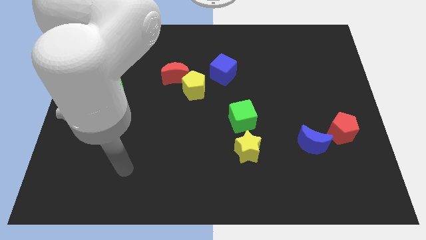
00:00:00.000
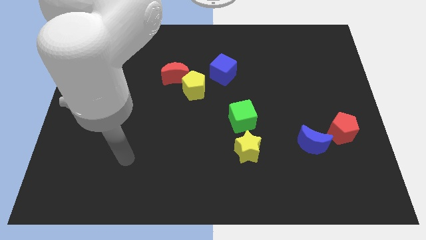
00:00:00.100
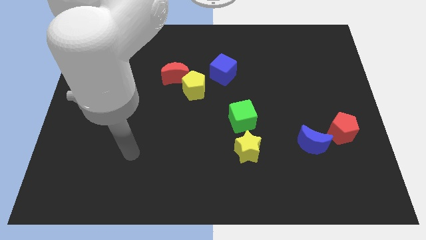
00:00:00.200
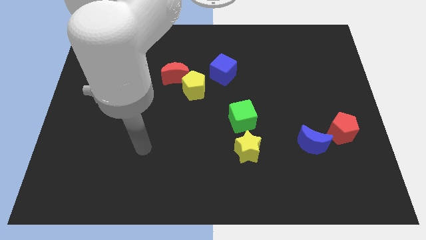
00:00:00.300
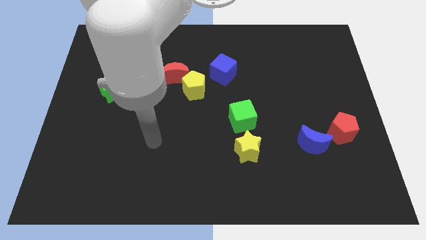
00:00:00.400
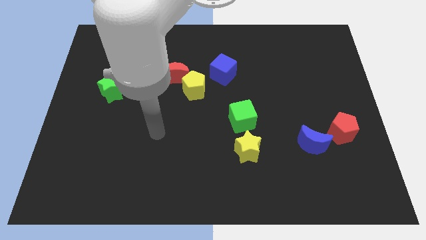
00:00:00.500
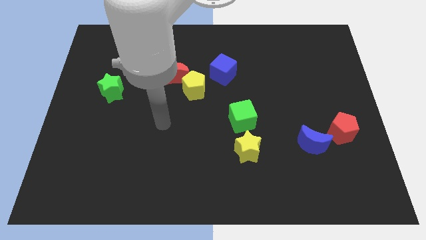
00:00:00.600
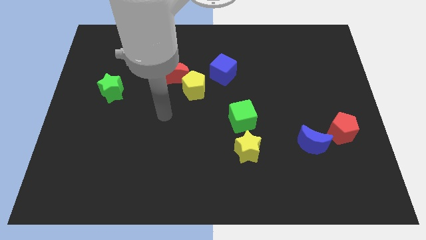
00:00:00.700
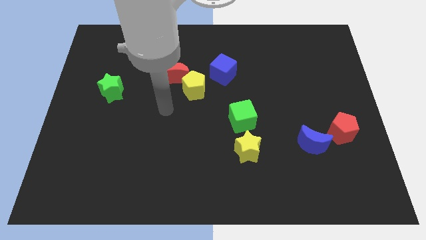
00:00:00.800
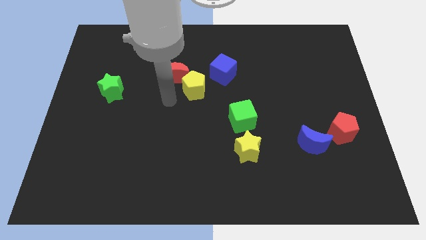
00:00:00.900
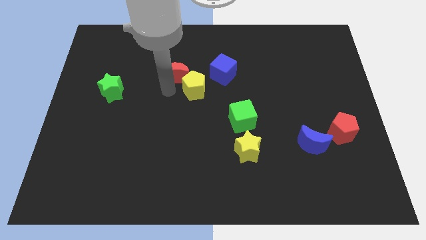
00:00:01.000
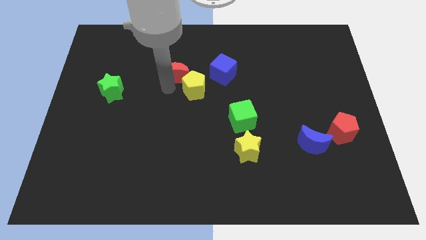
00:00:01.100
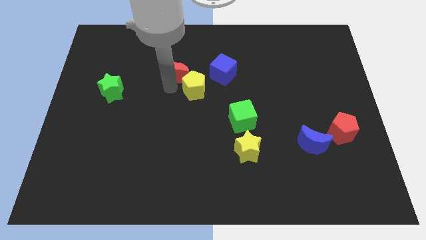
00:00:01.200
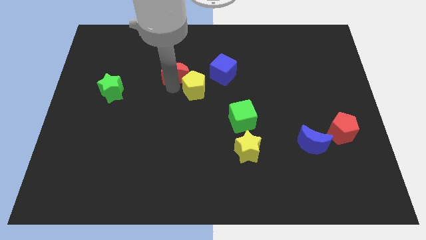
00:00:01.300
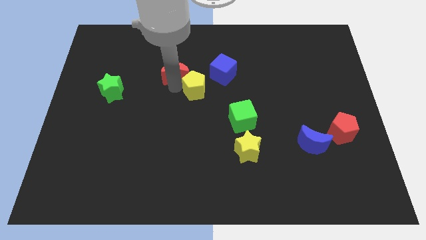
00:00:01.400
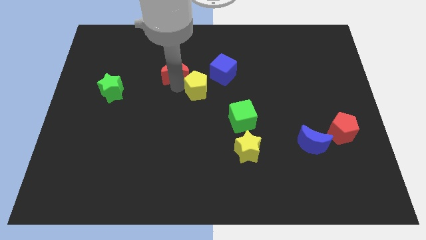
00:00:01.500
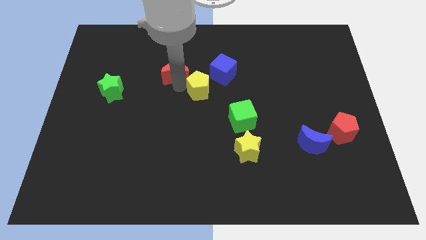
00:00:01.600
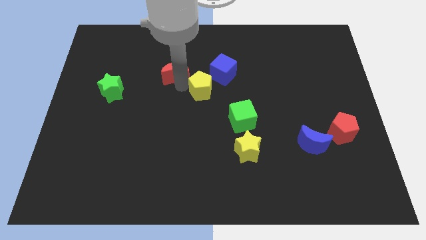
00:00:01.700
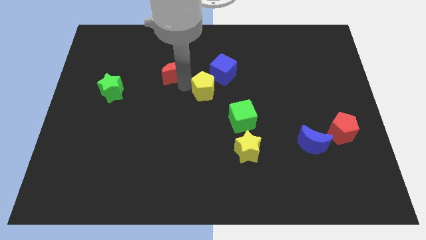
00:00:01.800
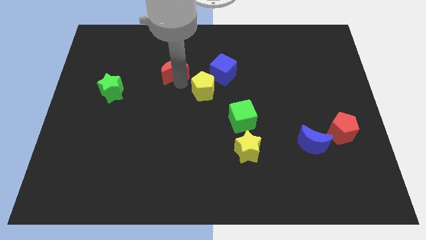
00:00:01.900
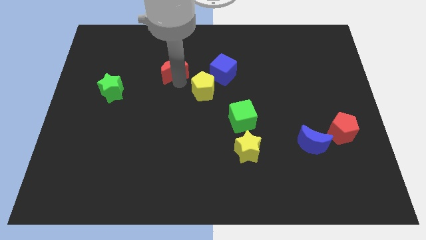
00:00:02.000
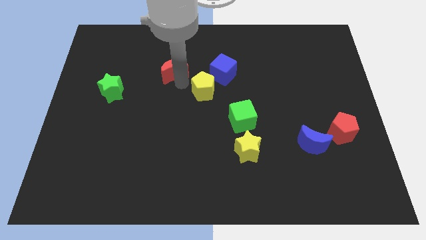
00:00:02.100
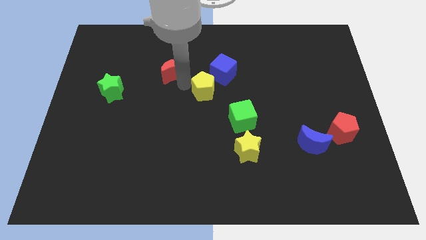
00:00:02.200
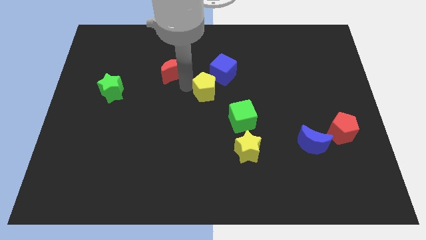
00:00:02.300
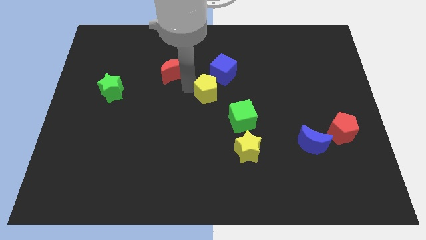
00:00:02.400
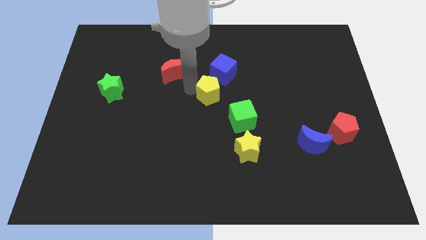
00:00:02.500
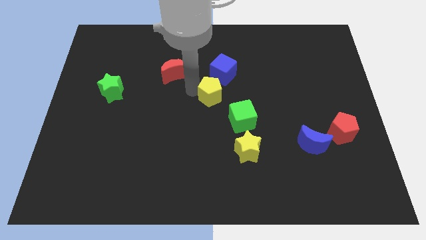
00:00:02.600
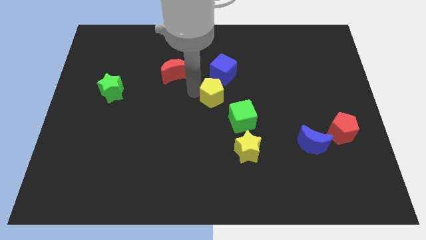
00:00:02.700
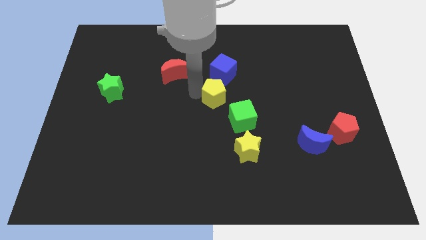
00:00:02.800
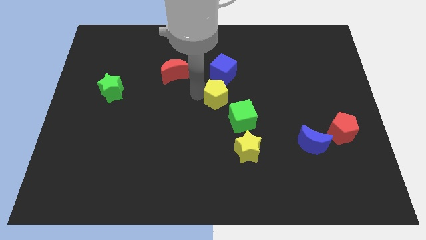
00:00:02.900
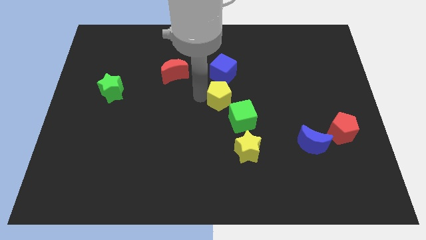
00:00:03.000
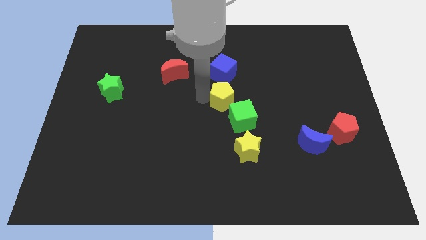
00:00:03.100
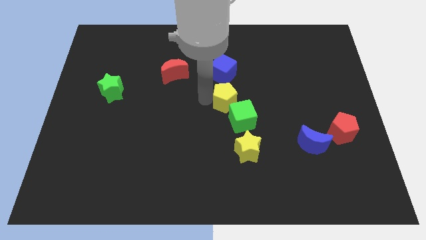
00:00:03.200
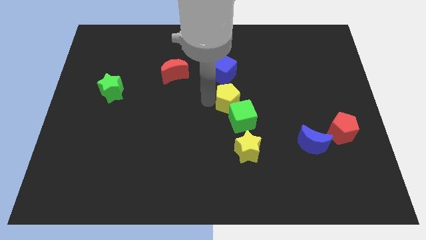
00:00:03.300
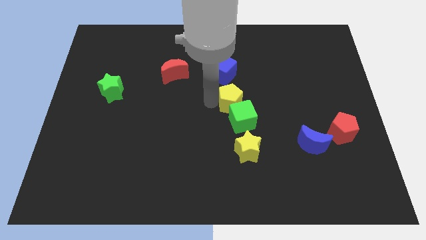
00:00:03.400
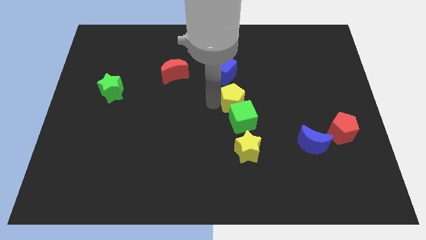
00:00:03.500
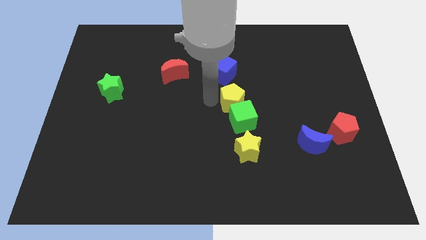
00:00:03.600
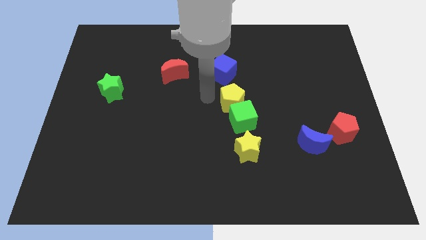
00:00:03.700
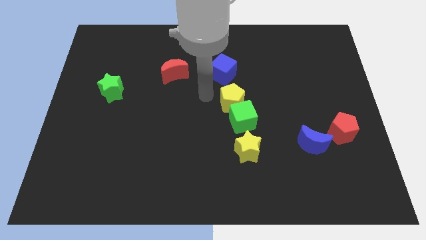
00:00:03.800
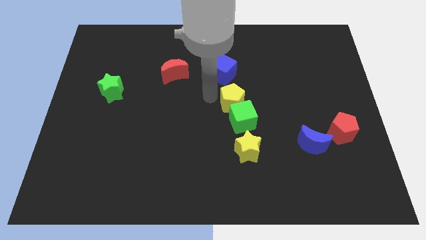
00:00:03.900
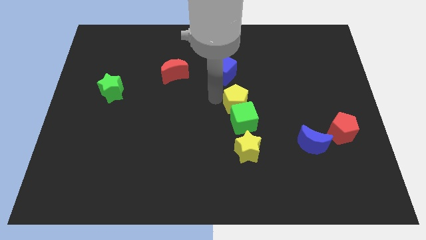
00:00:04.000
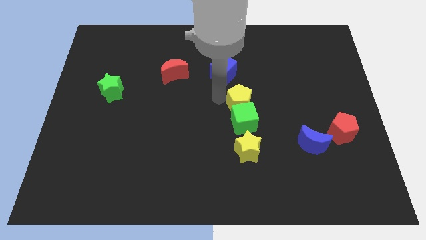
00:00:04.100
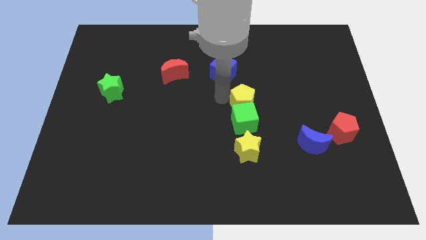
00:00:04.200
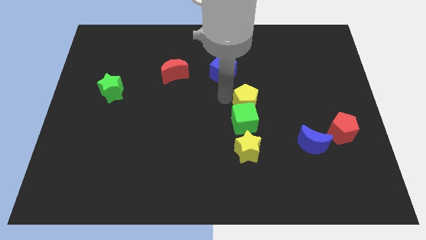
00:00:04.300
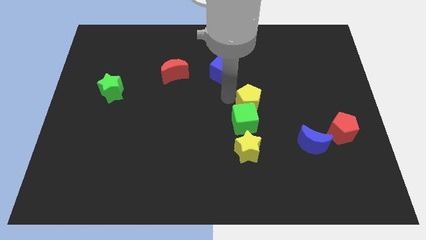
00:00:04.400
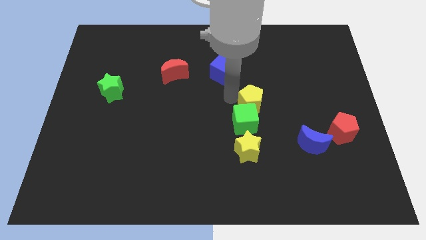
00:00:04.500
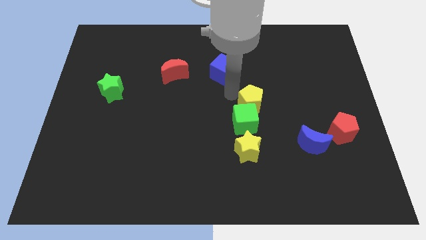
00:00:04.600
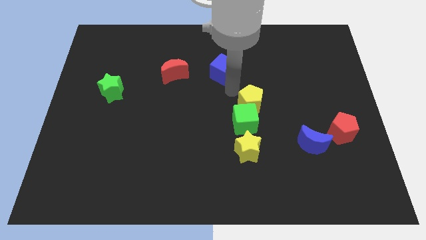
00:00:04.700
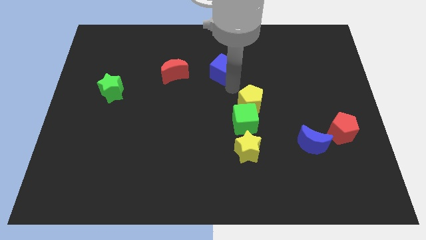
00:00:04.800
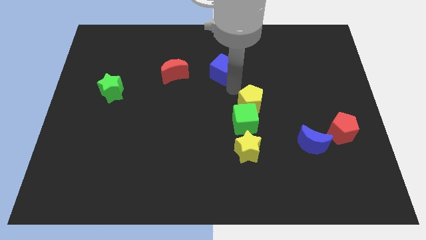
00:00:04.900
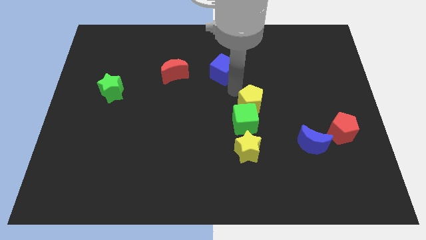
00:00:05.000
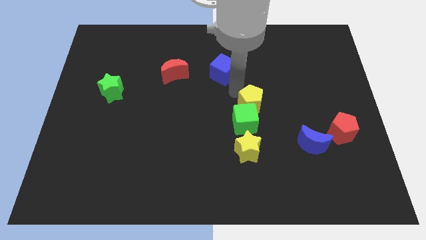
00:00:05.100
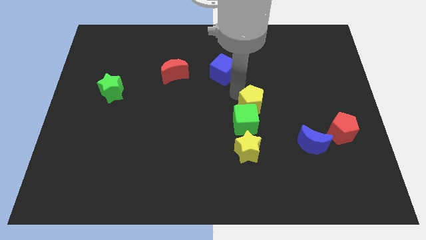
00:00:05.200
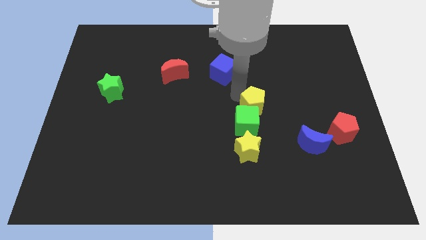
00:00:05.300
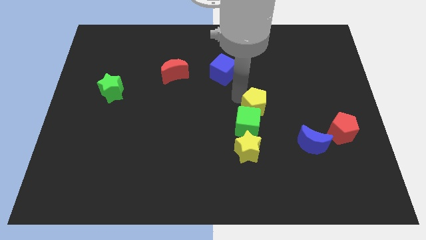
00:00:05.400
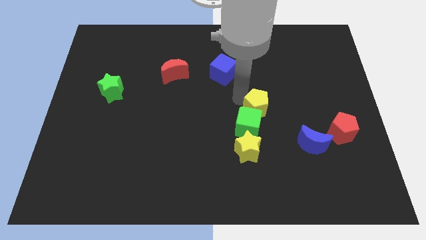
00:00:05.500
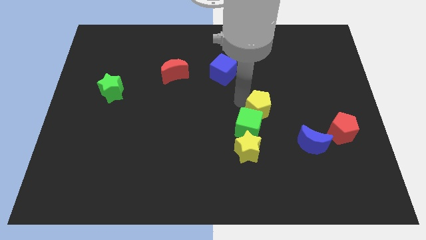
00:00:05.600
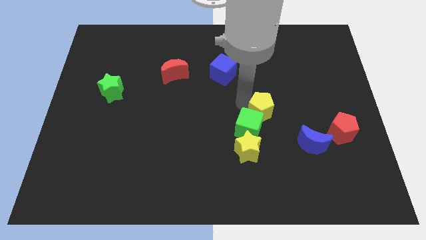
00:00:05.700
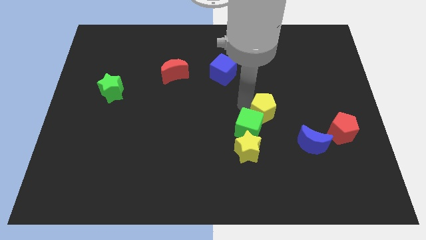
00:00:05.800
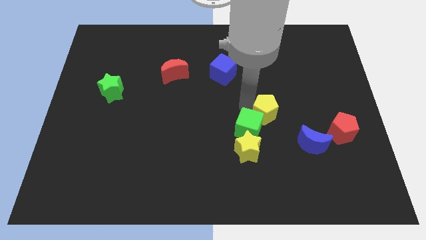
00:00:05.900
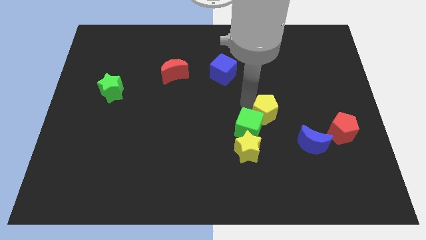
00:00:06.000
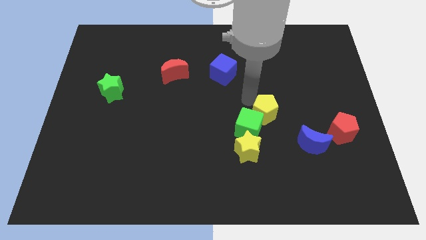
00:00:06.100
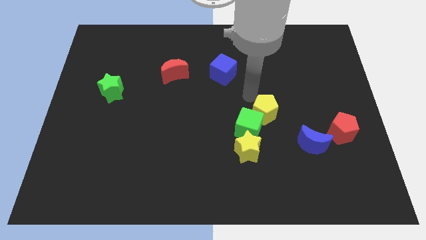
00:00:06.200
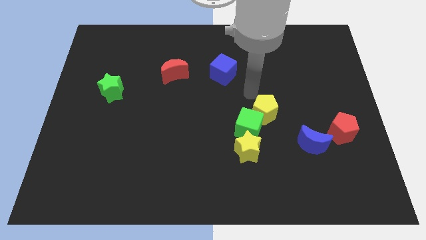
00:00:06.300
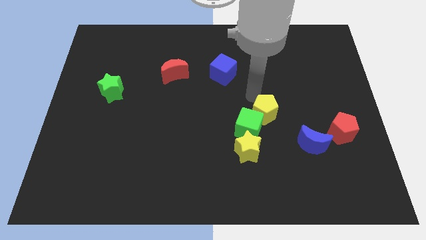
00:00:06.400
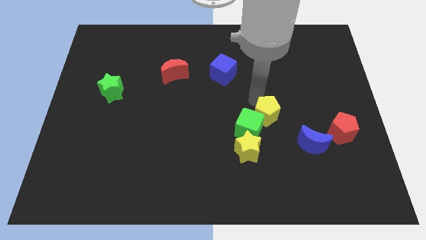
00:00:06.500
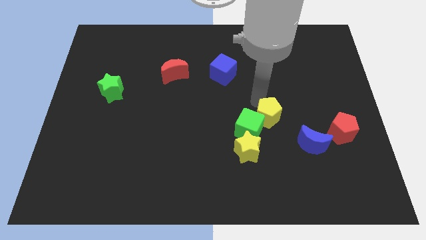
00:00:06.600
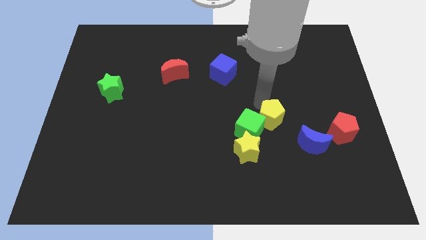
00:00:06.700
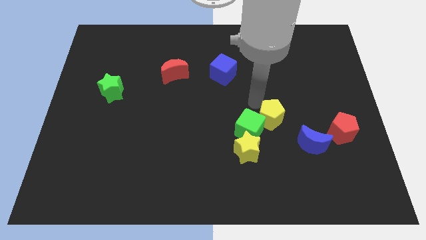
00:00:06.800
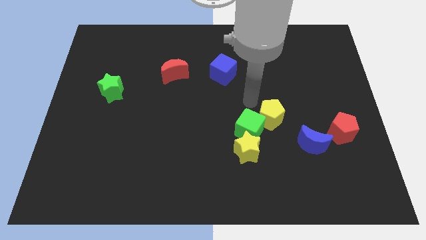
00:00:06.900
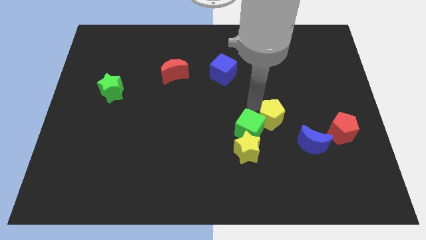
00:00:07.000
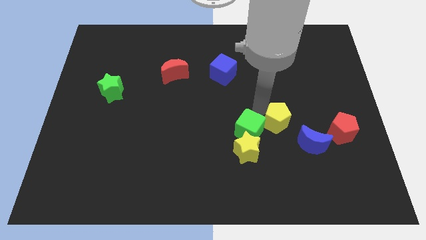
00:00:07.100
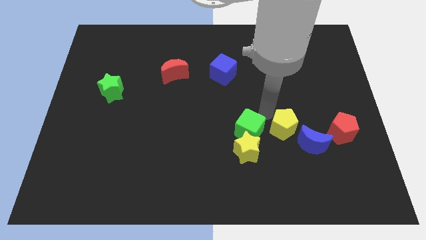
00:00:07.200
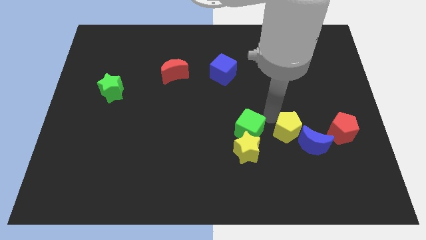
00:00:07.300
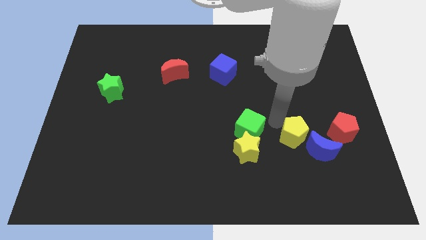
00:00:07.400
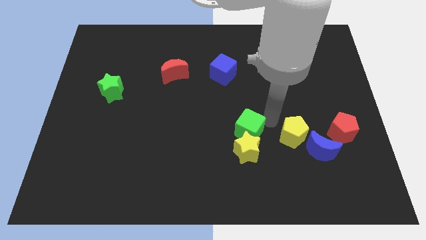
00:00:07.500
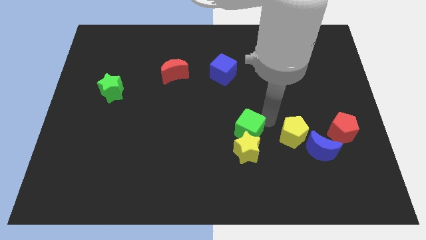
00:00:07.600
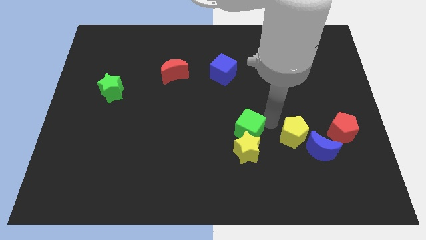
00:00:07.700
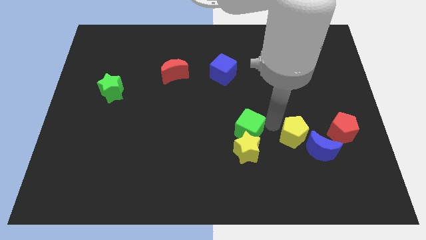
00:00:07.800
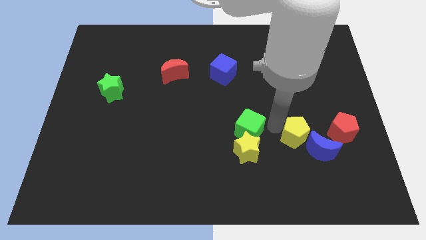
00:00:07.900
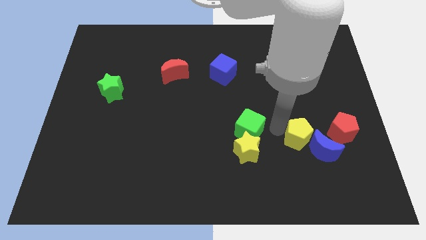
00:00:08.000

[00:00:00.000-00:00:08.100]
move the yellow pentagon next to the blue moon
